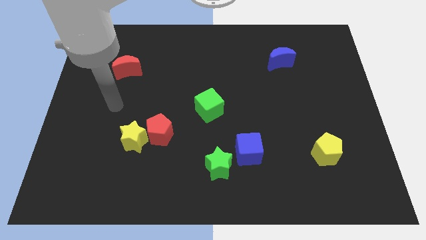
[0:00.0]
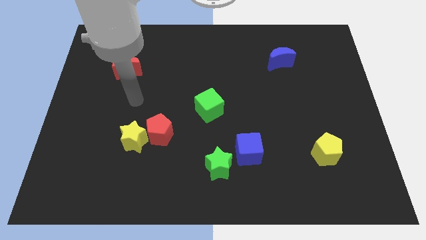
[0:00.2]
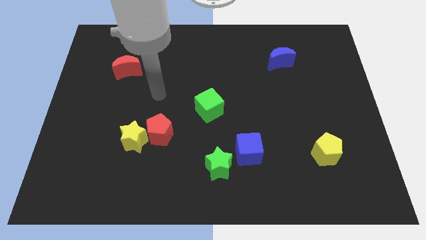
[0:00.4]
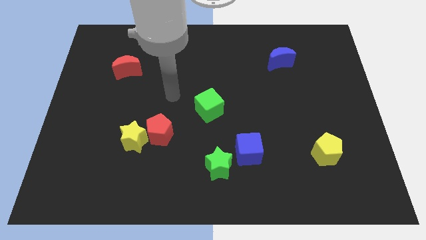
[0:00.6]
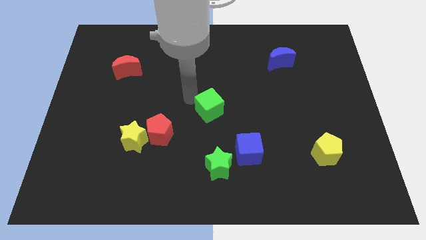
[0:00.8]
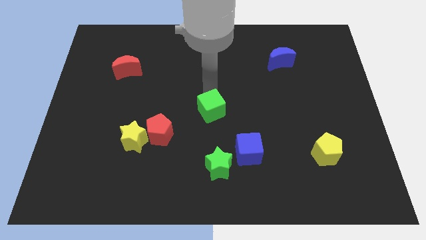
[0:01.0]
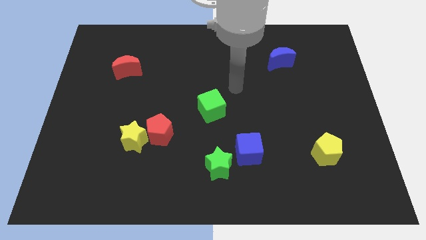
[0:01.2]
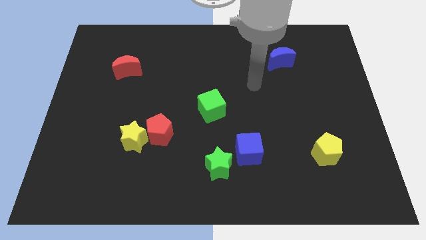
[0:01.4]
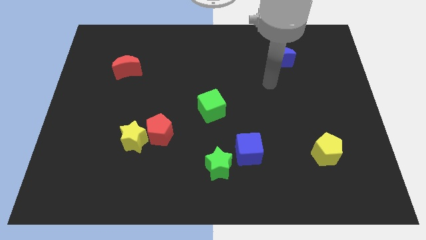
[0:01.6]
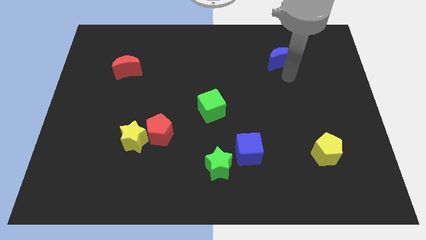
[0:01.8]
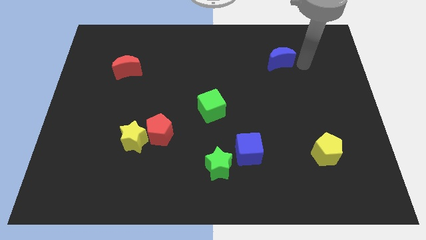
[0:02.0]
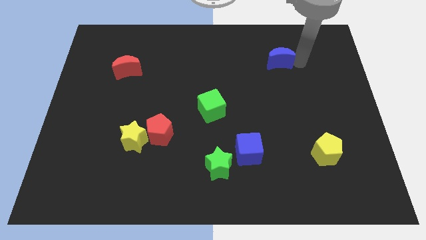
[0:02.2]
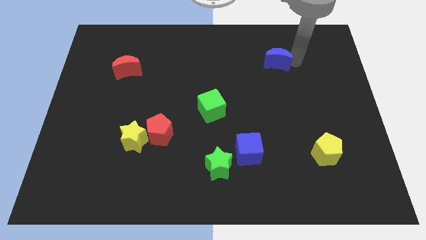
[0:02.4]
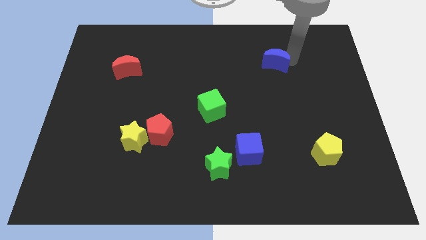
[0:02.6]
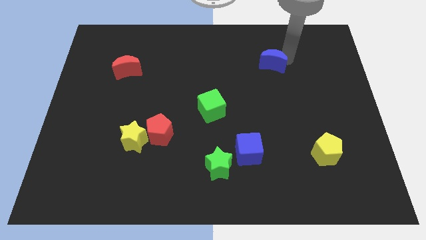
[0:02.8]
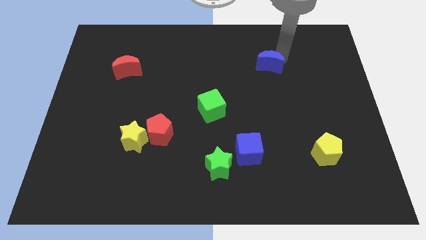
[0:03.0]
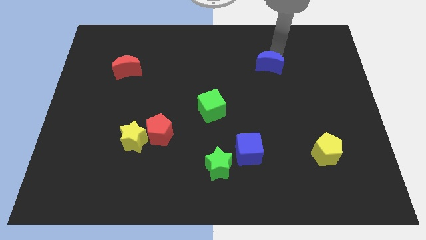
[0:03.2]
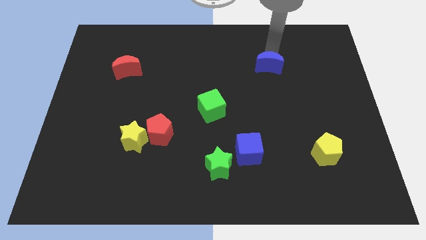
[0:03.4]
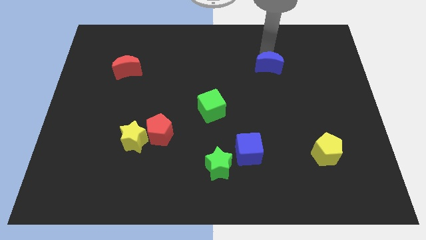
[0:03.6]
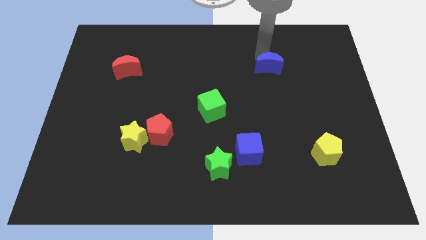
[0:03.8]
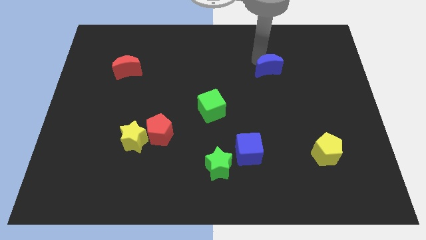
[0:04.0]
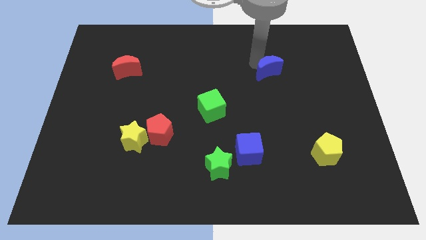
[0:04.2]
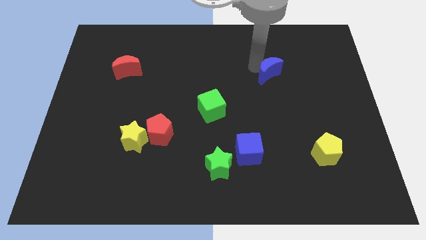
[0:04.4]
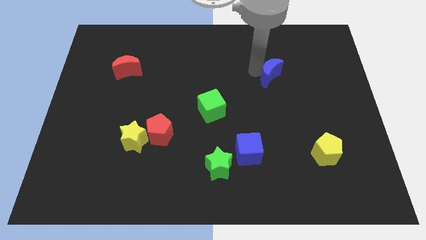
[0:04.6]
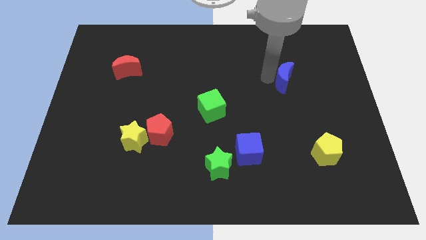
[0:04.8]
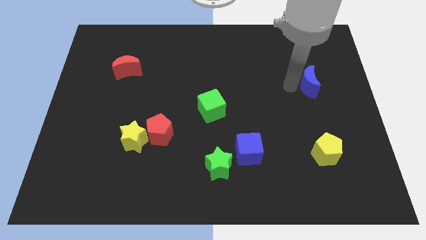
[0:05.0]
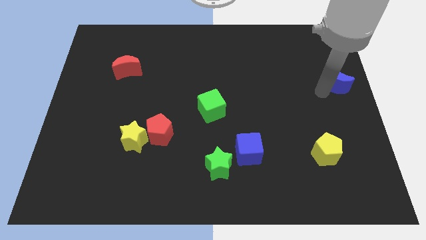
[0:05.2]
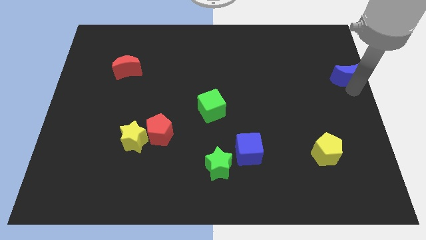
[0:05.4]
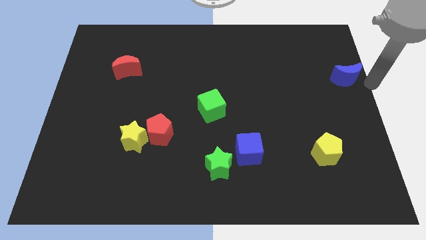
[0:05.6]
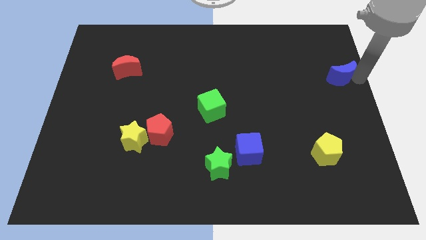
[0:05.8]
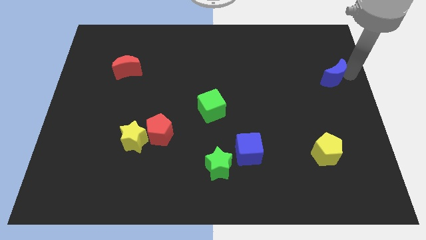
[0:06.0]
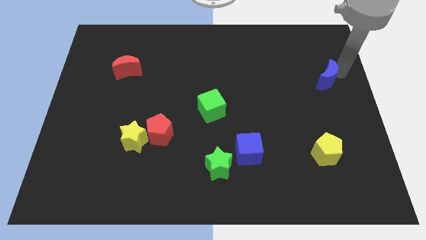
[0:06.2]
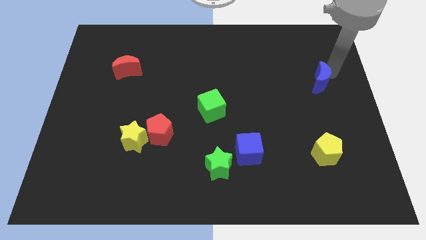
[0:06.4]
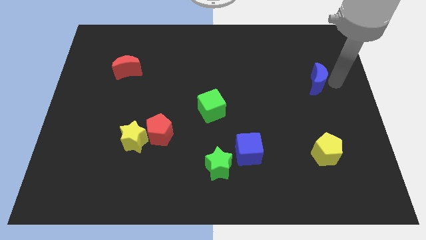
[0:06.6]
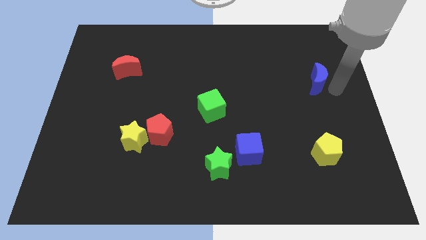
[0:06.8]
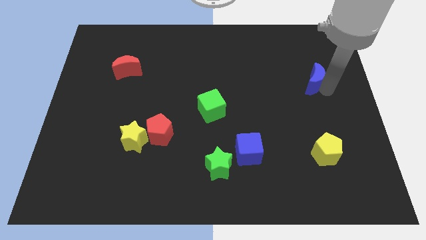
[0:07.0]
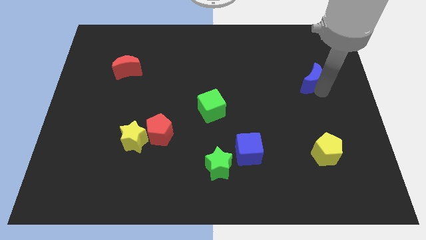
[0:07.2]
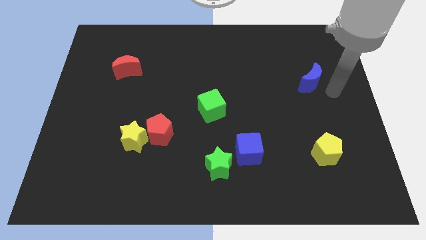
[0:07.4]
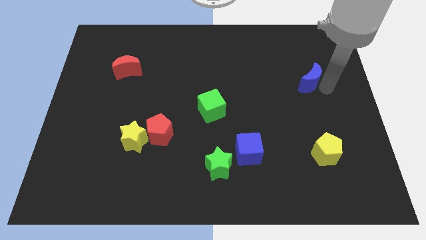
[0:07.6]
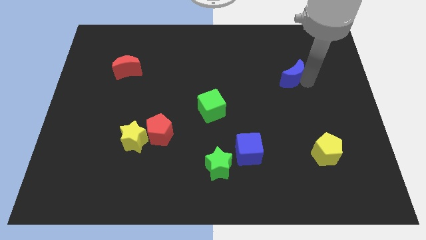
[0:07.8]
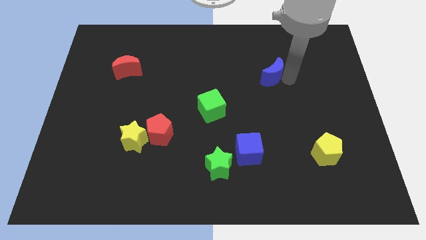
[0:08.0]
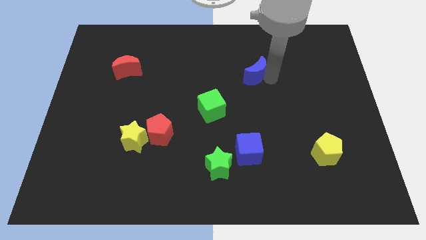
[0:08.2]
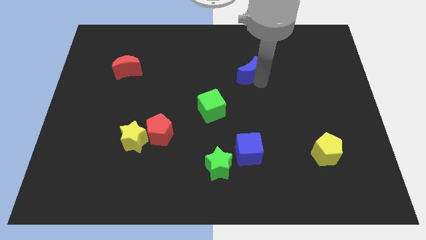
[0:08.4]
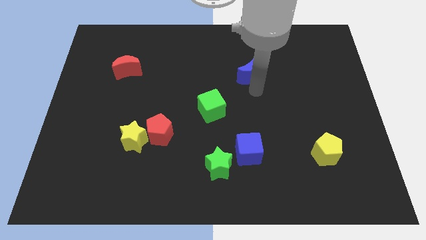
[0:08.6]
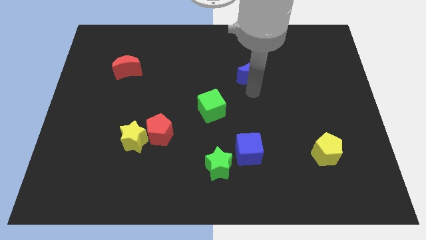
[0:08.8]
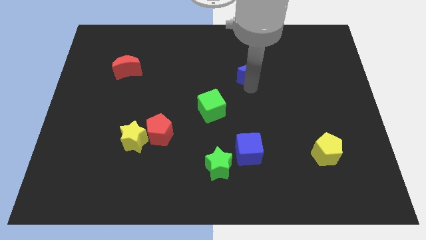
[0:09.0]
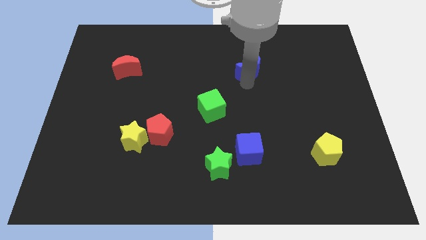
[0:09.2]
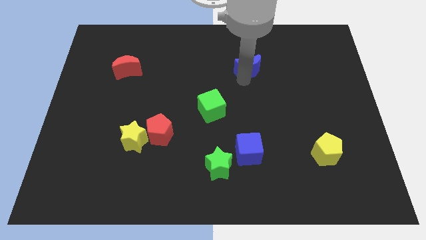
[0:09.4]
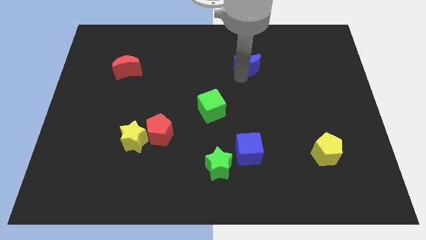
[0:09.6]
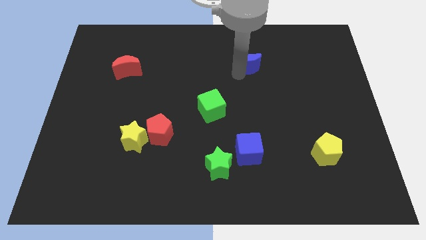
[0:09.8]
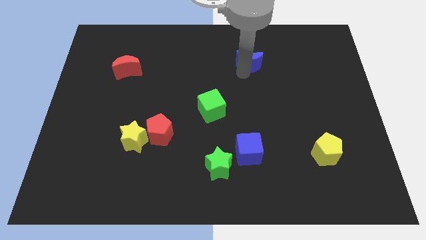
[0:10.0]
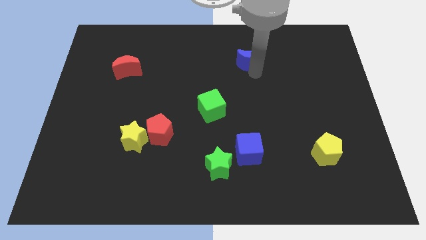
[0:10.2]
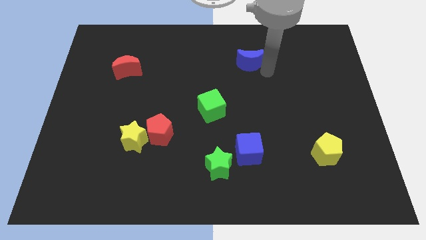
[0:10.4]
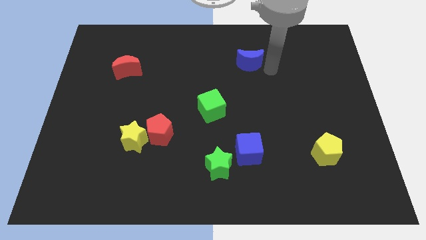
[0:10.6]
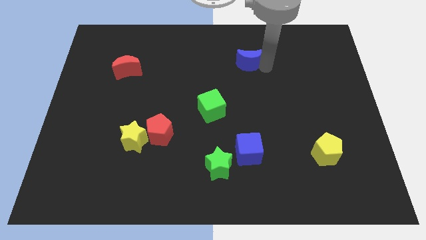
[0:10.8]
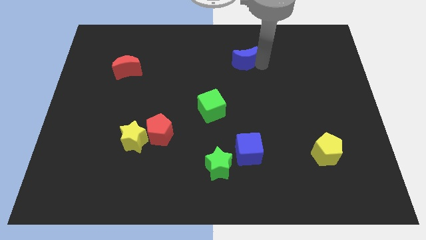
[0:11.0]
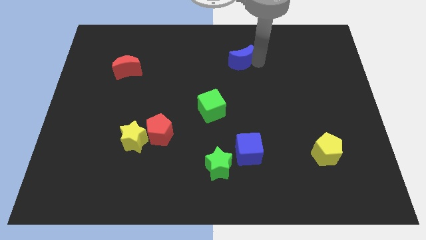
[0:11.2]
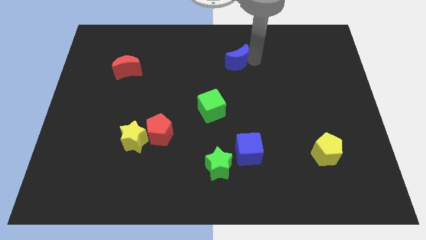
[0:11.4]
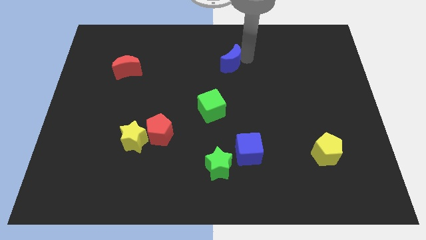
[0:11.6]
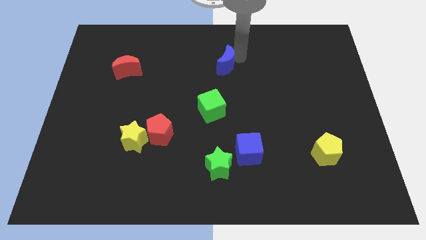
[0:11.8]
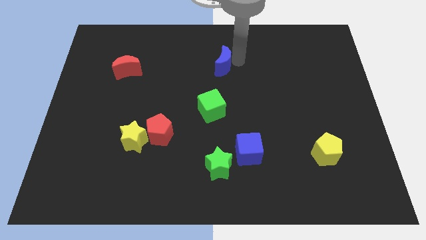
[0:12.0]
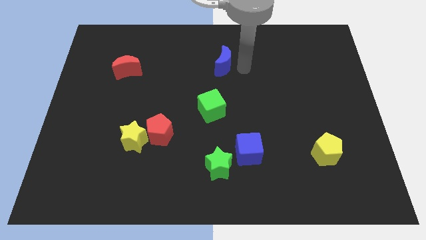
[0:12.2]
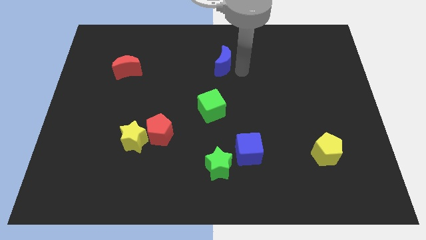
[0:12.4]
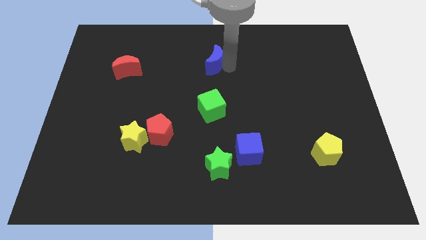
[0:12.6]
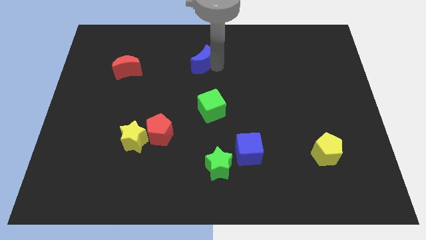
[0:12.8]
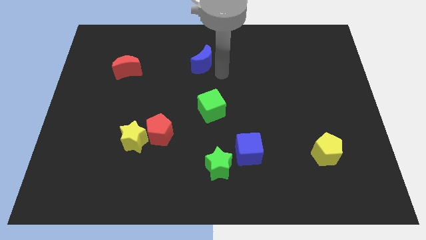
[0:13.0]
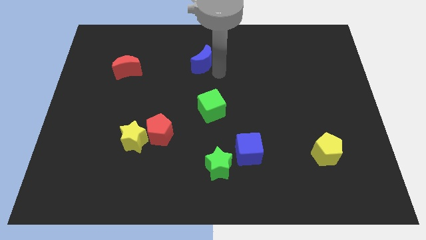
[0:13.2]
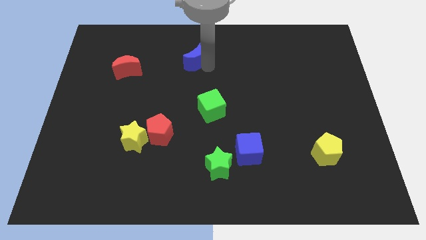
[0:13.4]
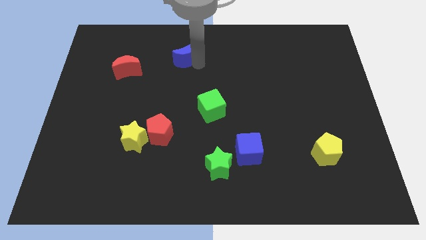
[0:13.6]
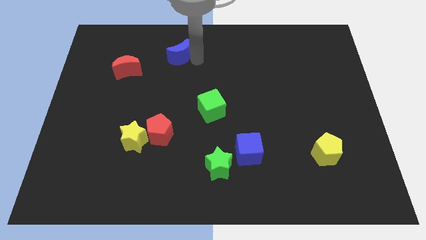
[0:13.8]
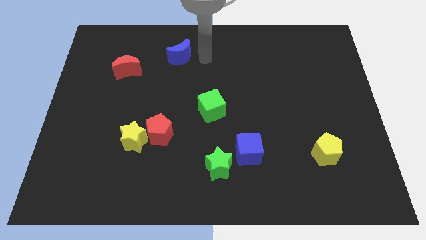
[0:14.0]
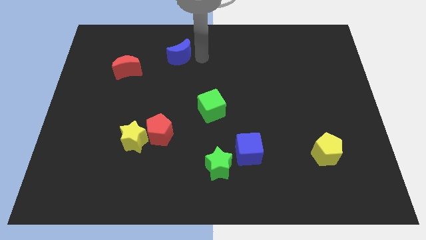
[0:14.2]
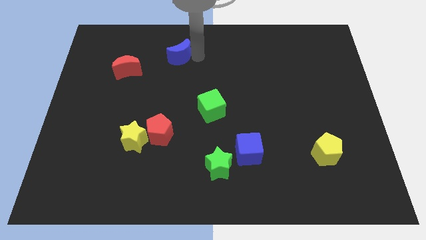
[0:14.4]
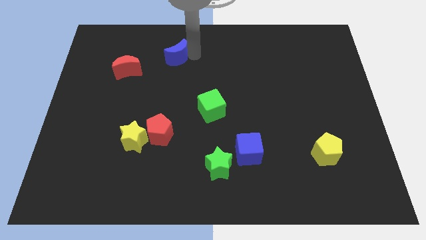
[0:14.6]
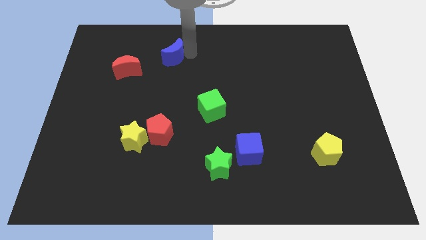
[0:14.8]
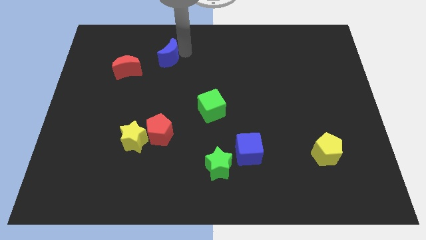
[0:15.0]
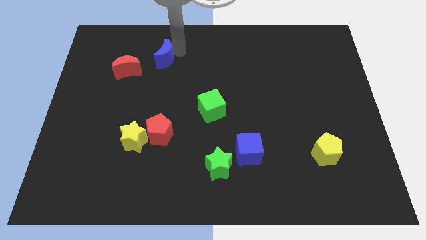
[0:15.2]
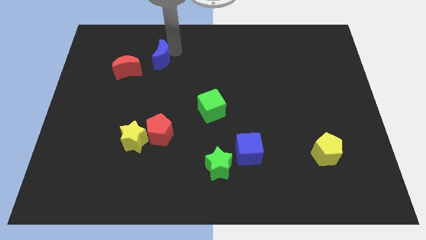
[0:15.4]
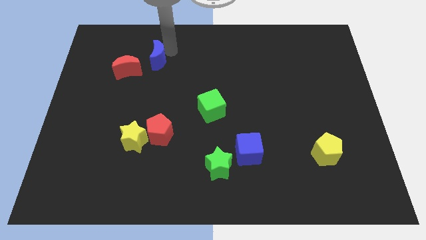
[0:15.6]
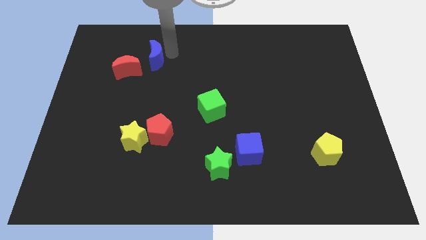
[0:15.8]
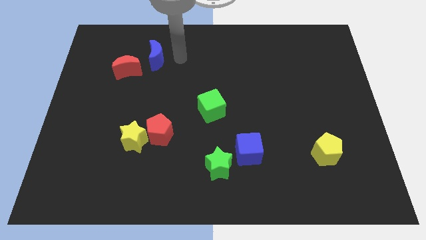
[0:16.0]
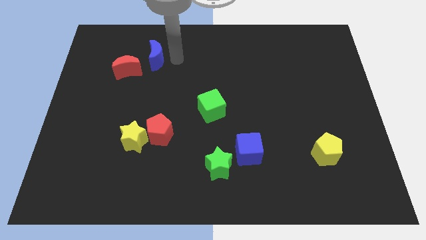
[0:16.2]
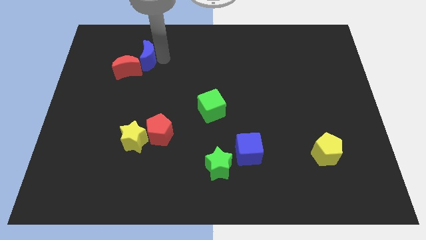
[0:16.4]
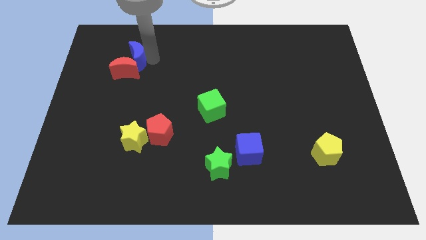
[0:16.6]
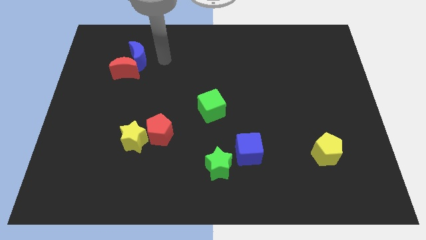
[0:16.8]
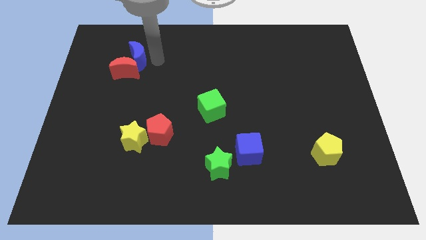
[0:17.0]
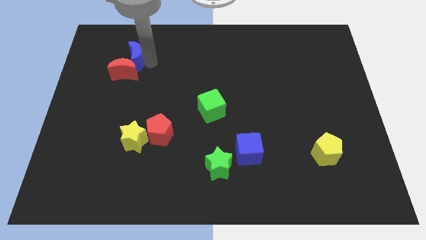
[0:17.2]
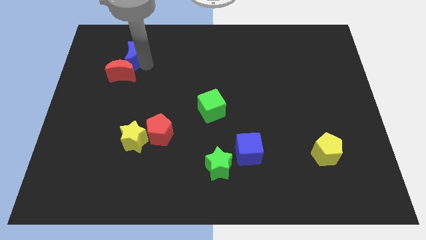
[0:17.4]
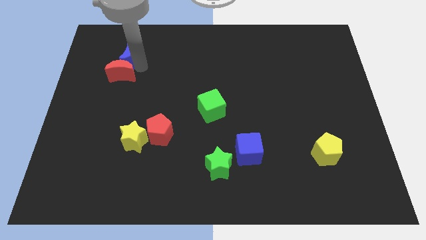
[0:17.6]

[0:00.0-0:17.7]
push the blue moon to the top left side of the red moon
